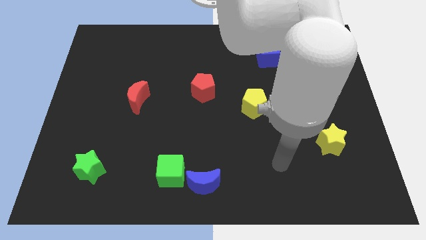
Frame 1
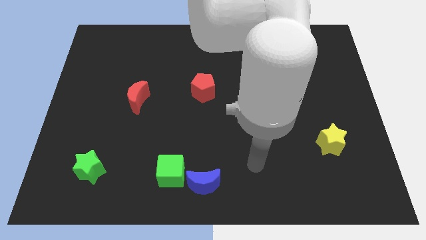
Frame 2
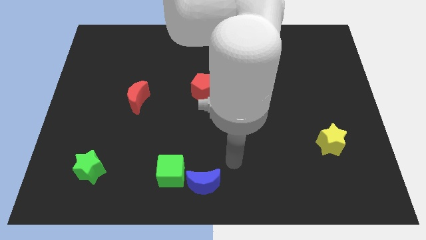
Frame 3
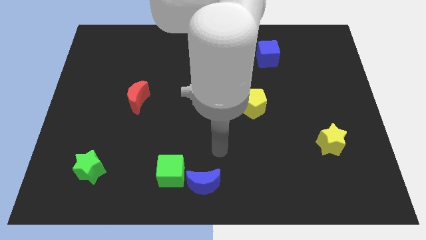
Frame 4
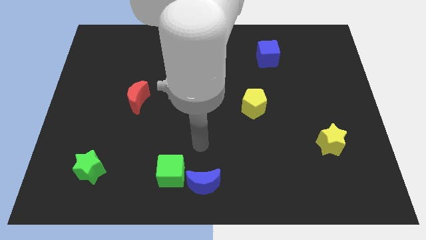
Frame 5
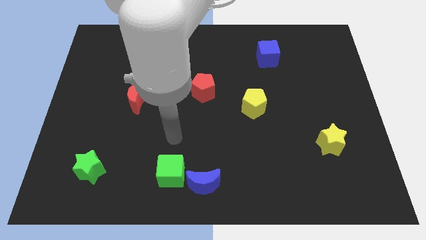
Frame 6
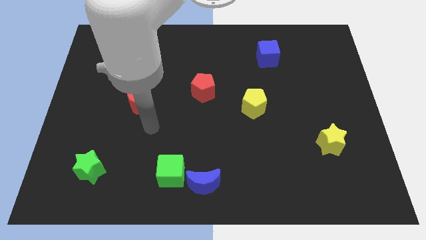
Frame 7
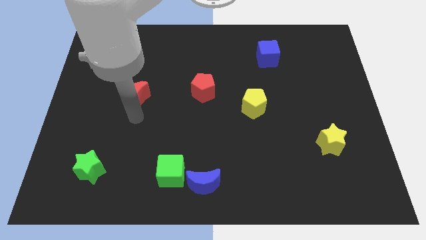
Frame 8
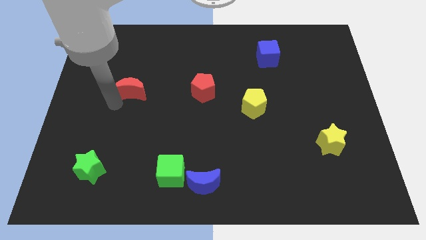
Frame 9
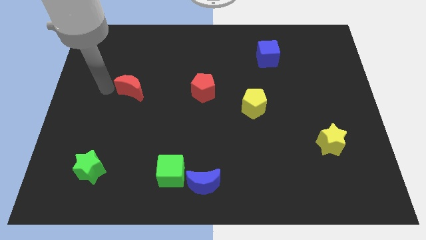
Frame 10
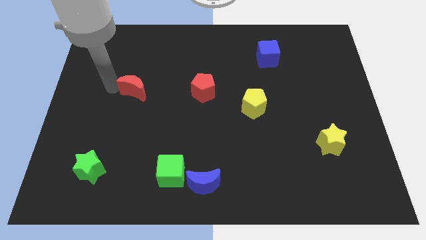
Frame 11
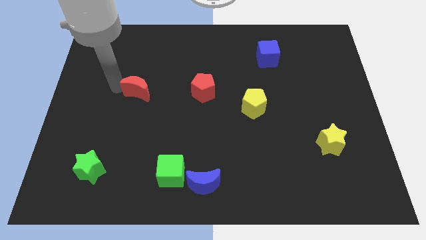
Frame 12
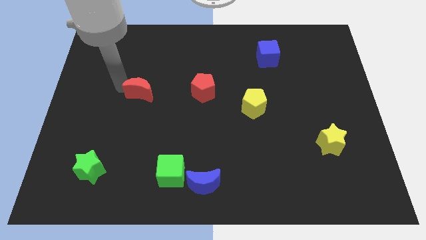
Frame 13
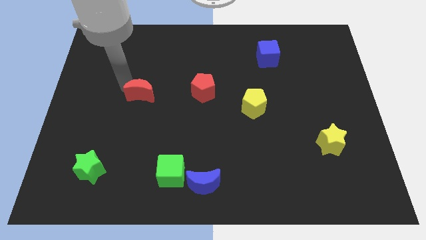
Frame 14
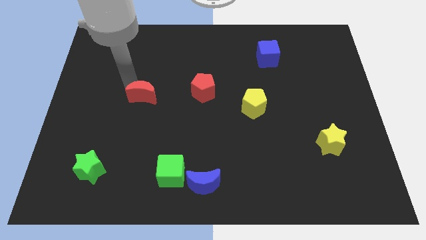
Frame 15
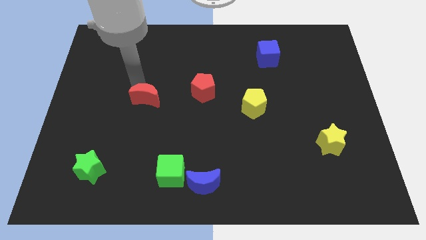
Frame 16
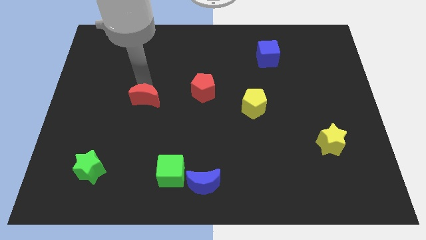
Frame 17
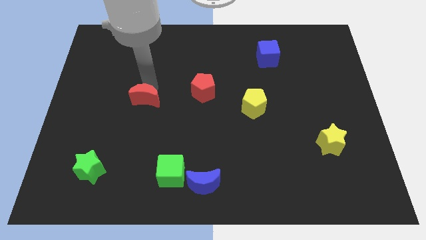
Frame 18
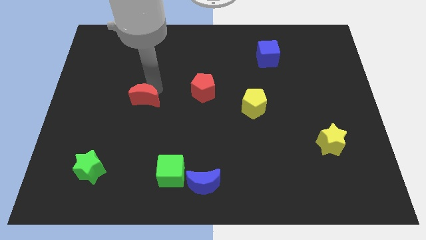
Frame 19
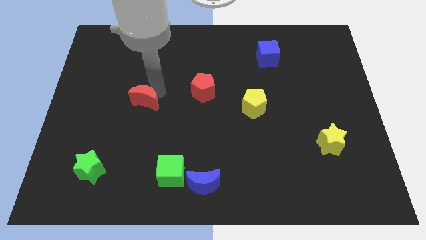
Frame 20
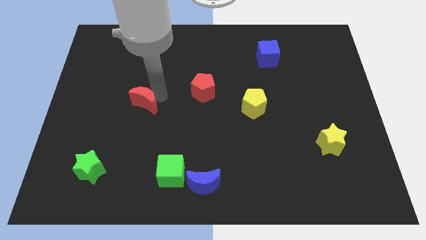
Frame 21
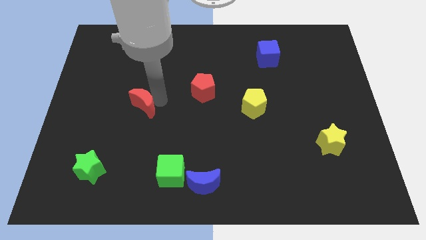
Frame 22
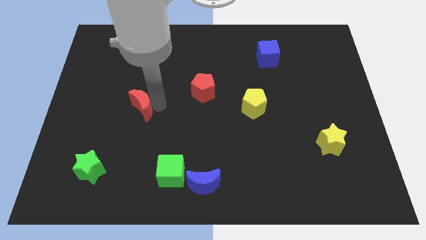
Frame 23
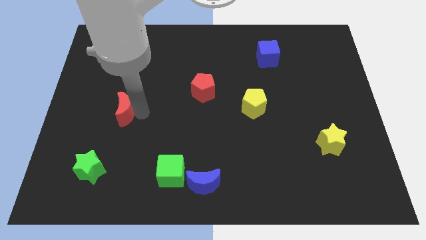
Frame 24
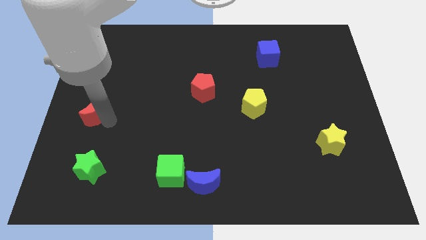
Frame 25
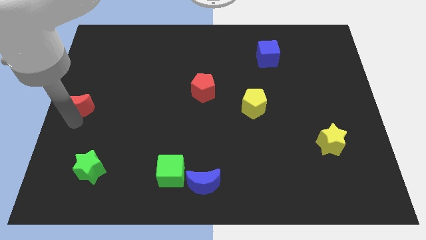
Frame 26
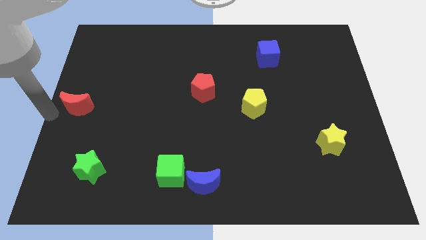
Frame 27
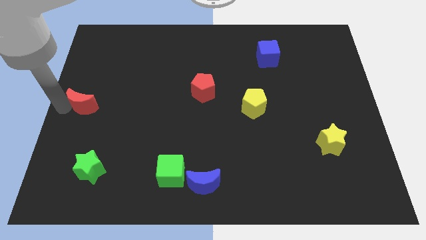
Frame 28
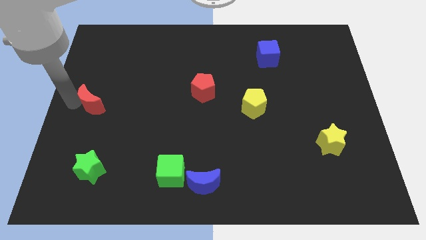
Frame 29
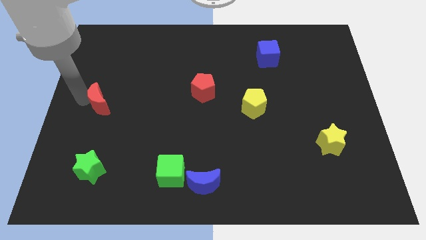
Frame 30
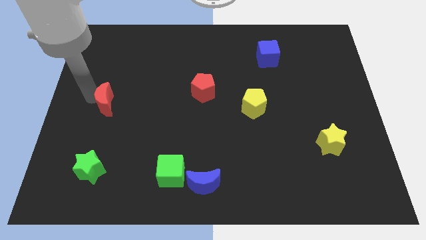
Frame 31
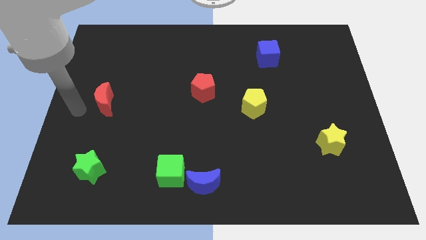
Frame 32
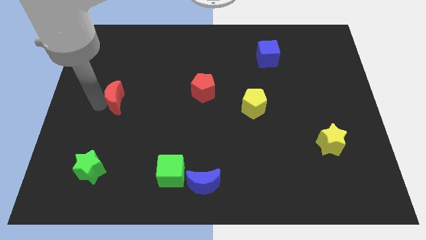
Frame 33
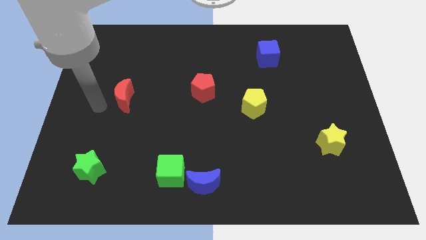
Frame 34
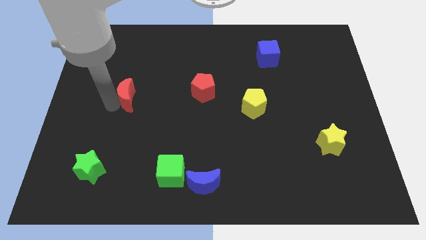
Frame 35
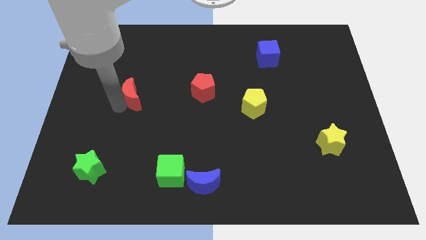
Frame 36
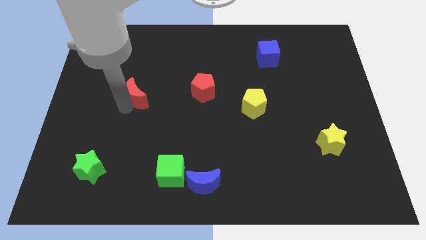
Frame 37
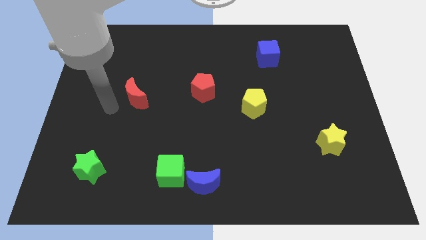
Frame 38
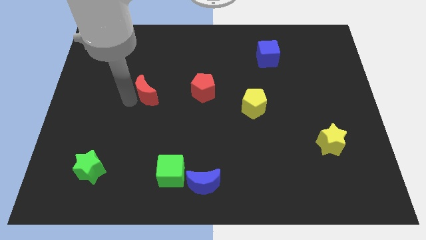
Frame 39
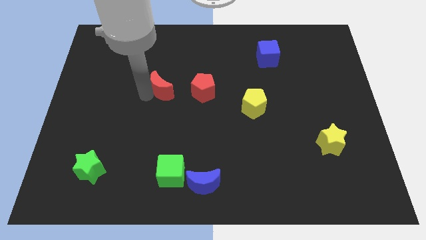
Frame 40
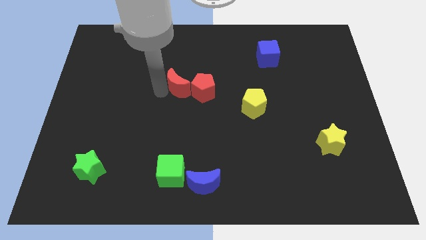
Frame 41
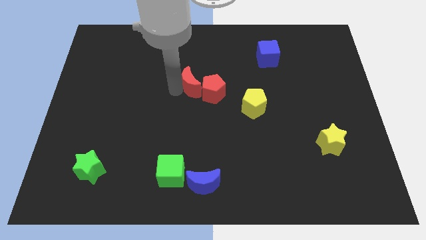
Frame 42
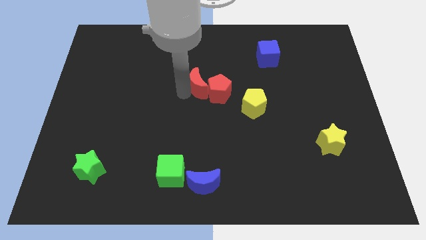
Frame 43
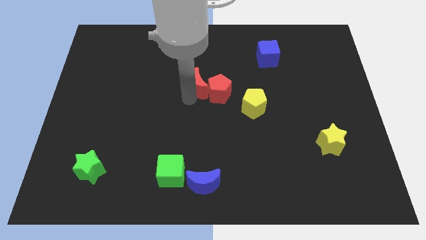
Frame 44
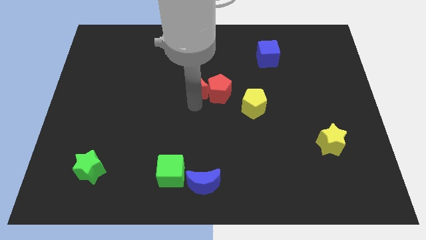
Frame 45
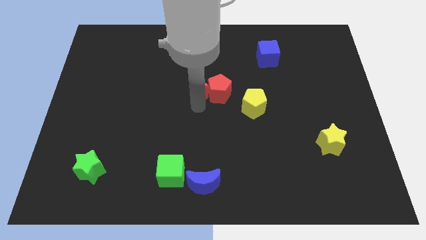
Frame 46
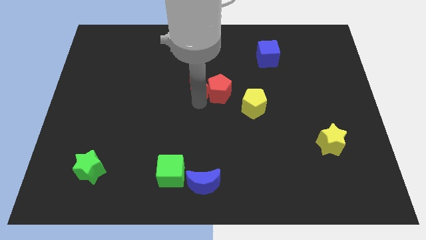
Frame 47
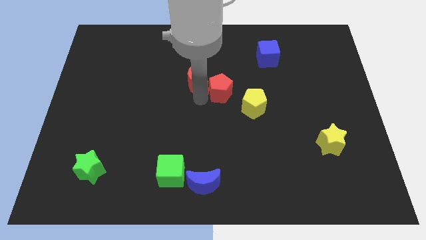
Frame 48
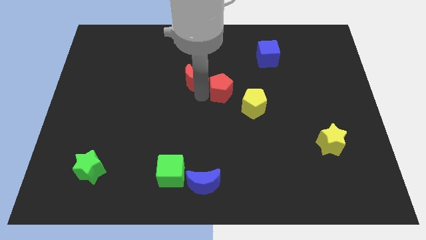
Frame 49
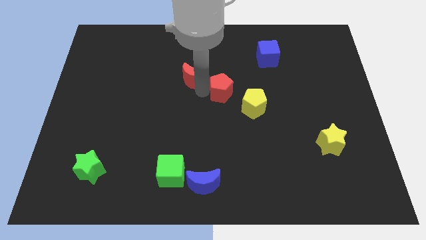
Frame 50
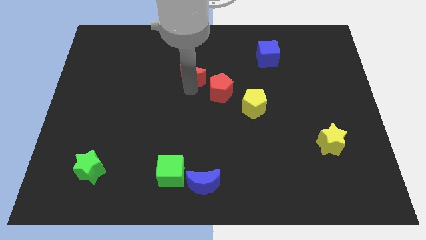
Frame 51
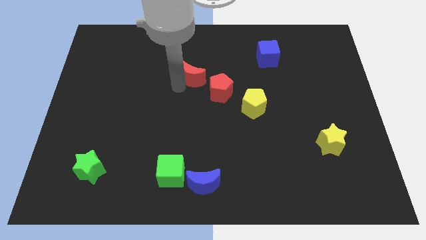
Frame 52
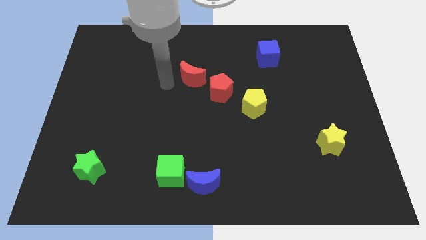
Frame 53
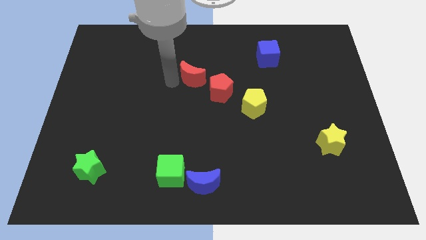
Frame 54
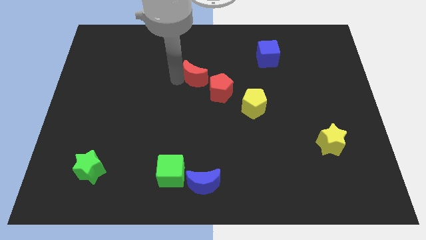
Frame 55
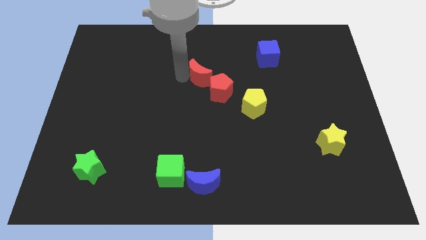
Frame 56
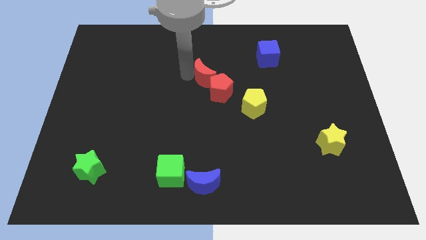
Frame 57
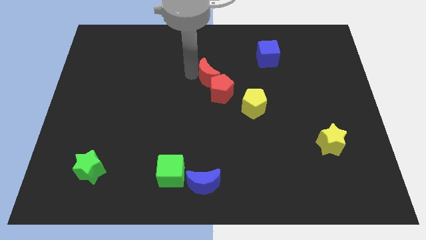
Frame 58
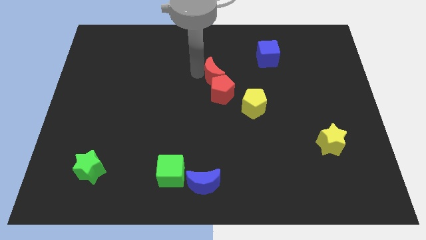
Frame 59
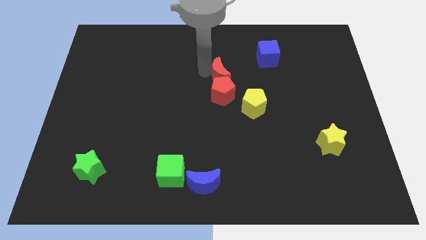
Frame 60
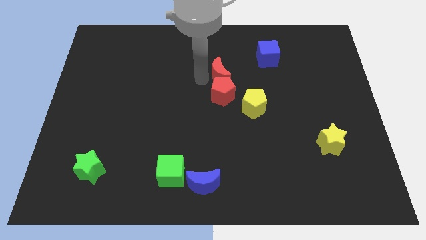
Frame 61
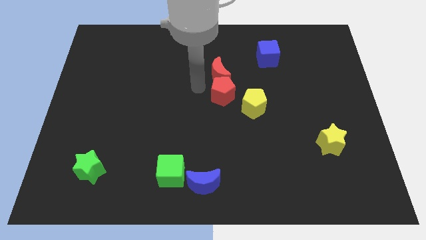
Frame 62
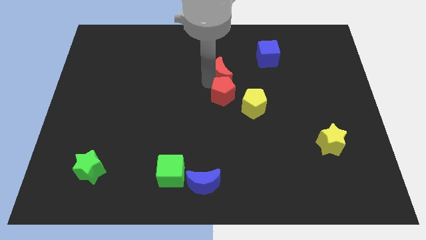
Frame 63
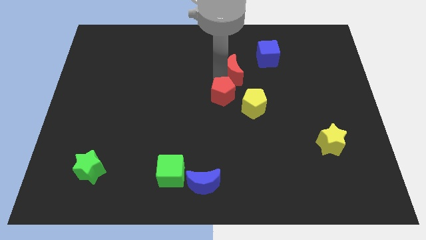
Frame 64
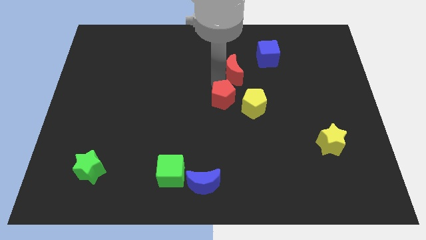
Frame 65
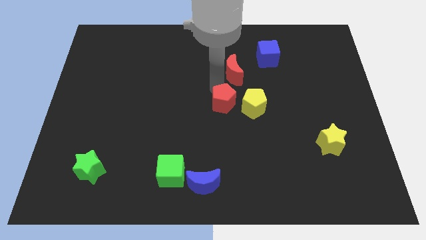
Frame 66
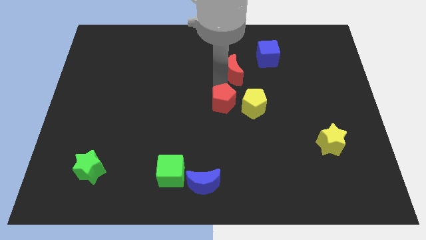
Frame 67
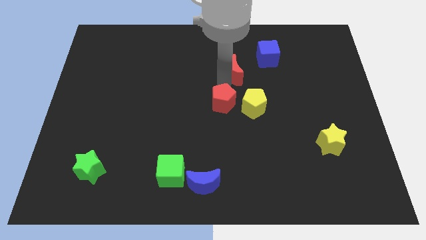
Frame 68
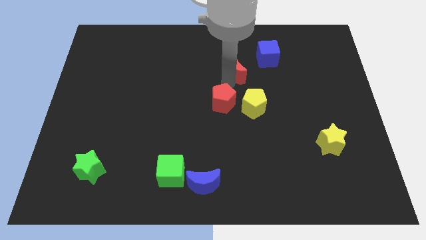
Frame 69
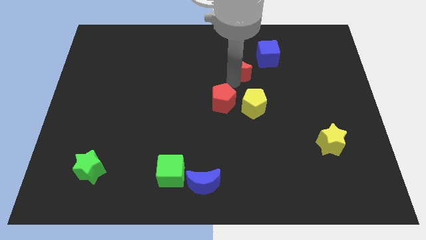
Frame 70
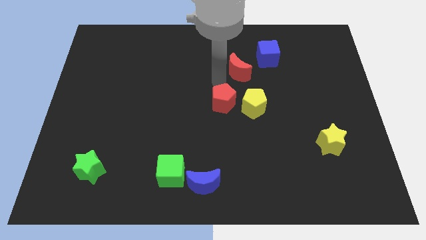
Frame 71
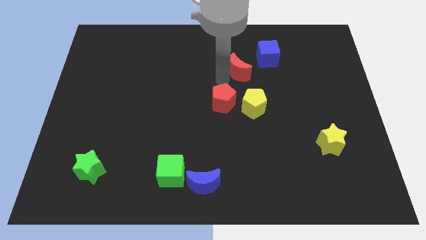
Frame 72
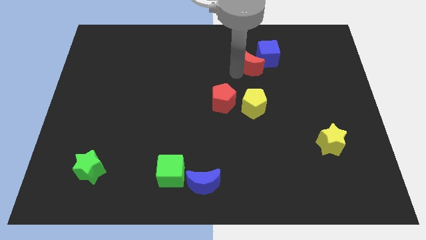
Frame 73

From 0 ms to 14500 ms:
slide the red moon close to the blue cube
